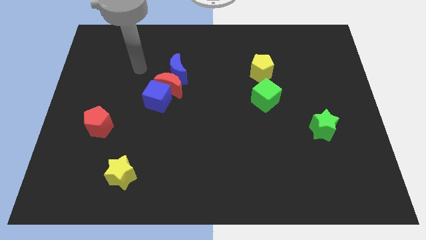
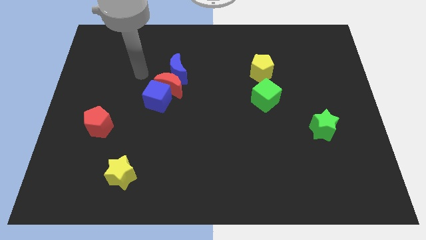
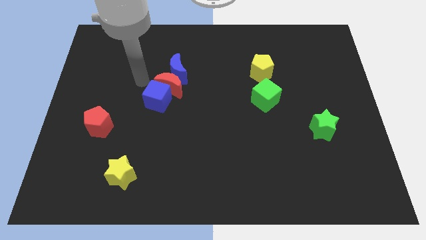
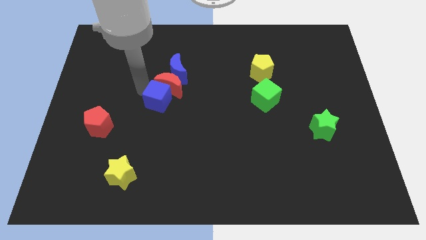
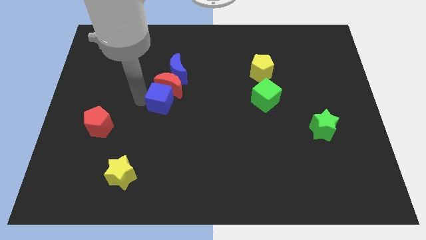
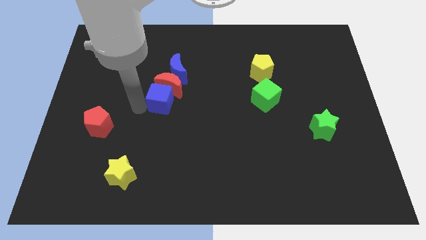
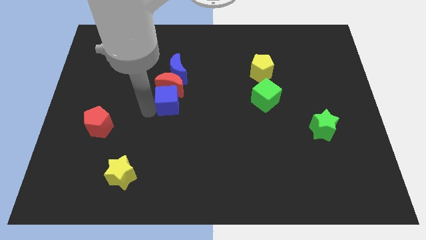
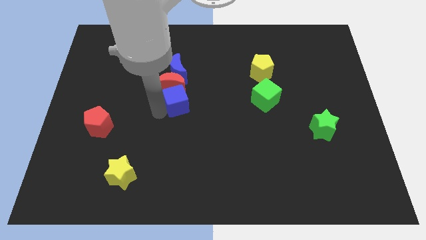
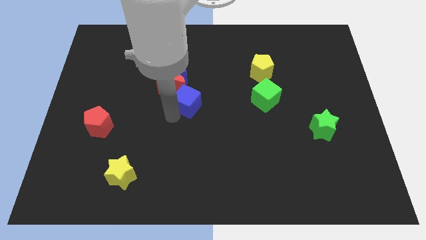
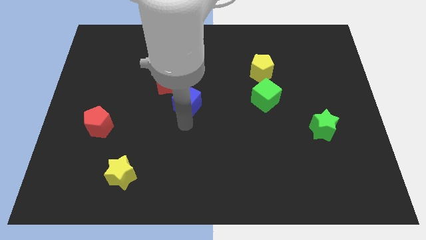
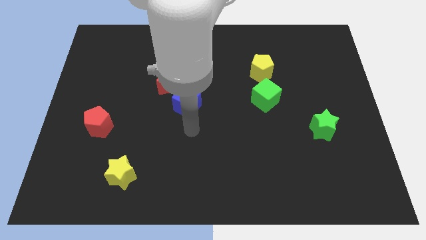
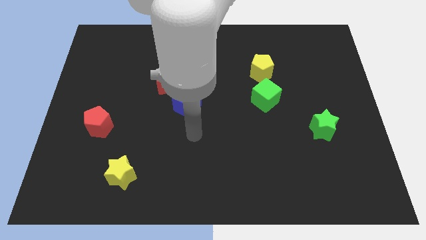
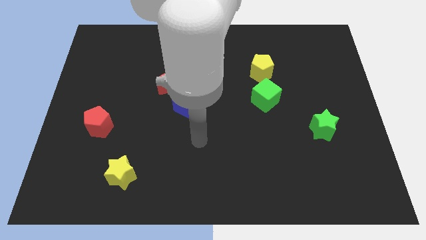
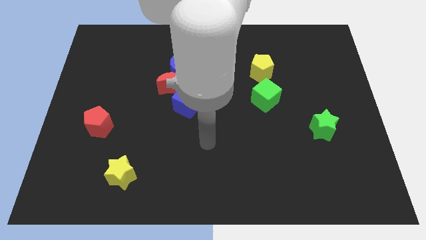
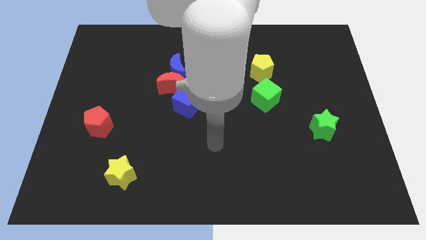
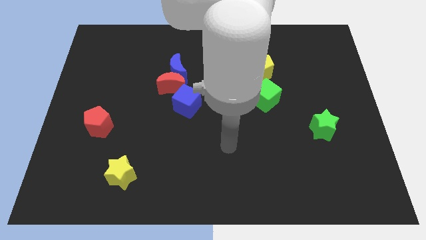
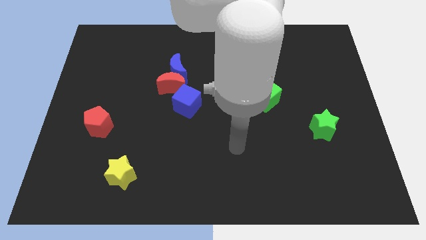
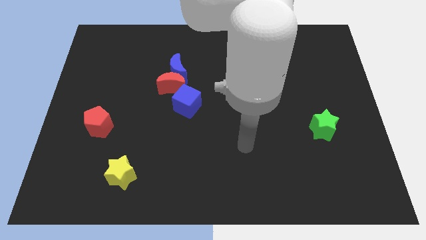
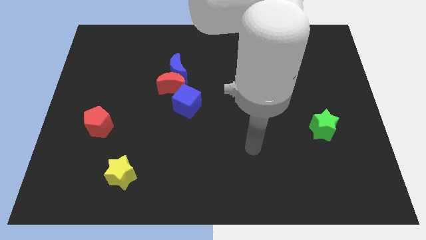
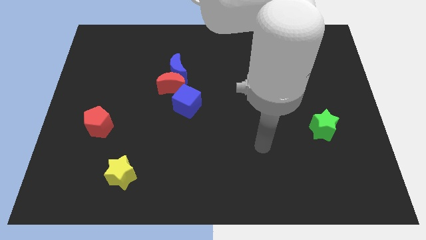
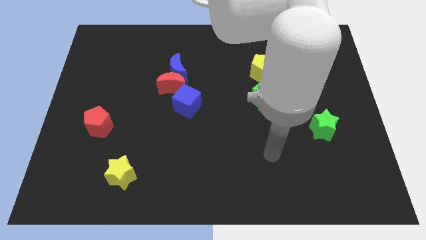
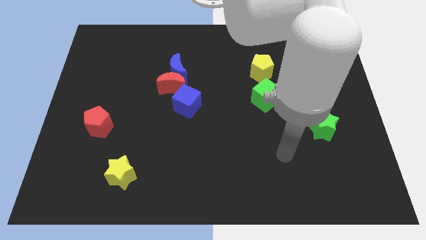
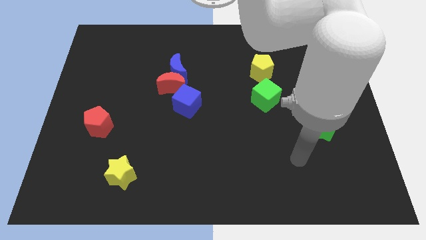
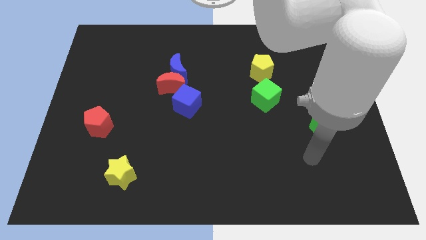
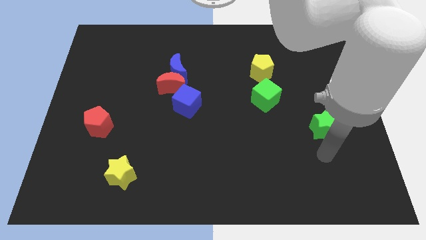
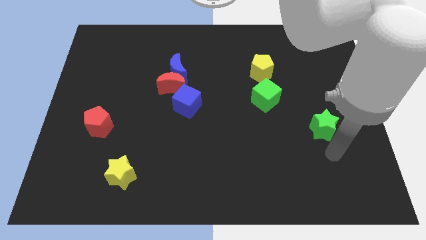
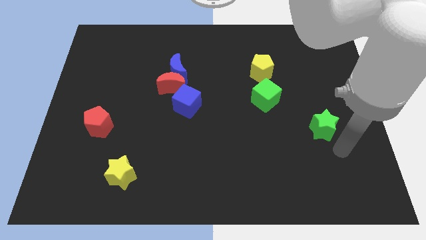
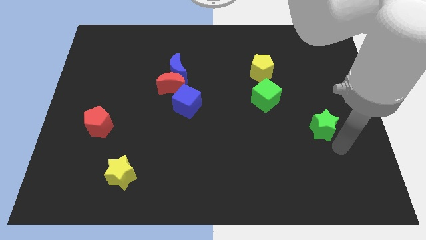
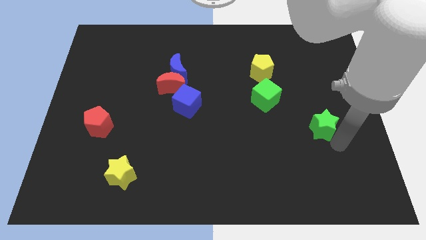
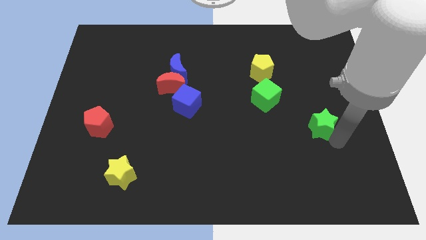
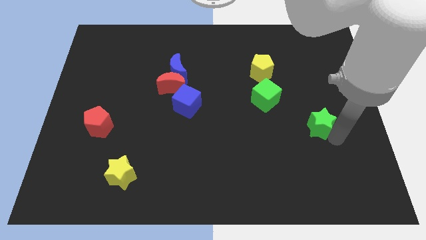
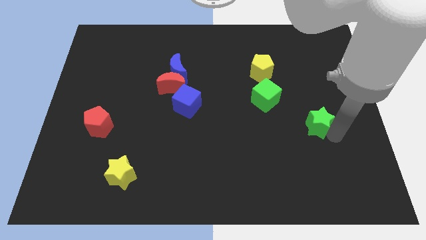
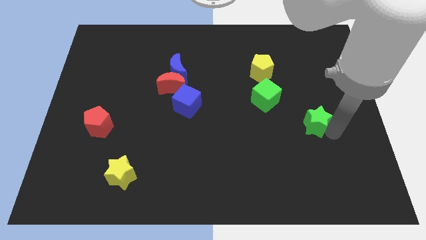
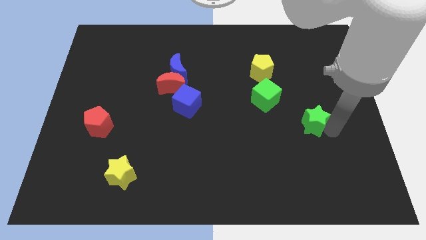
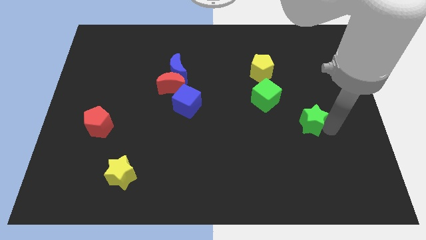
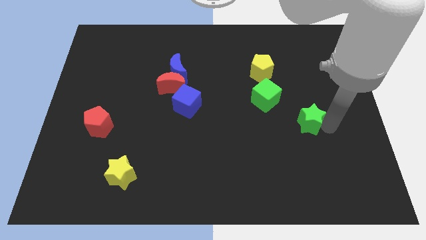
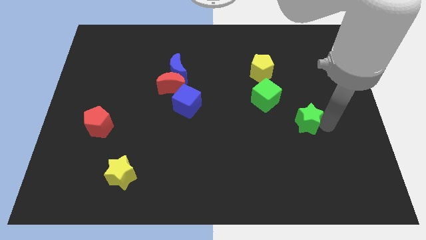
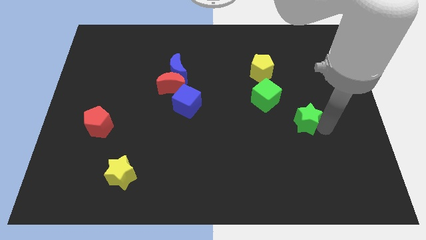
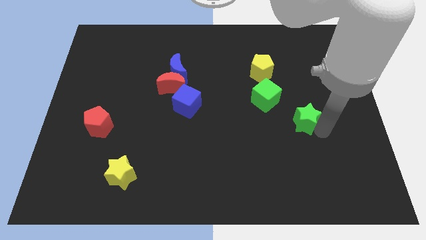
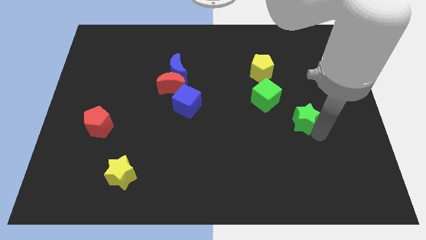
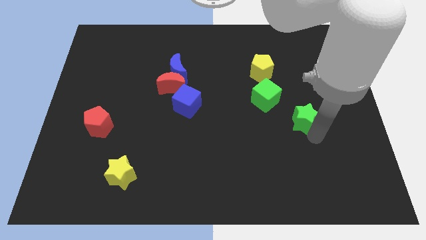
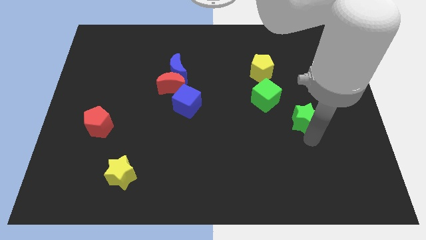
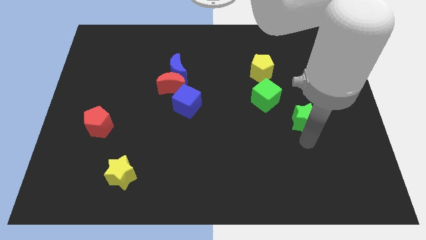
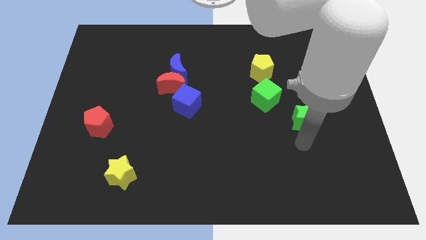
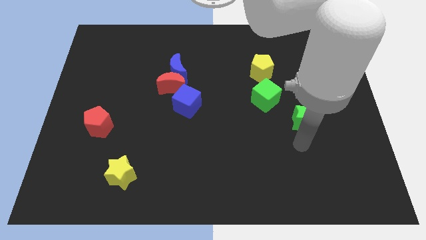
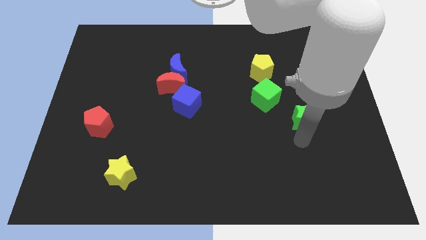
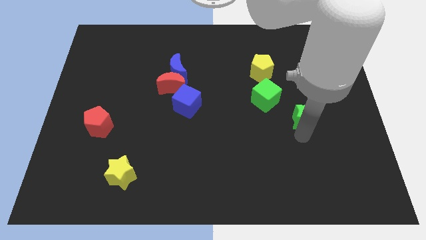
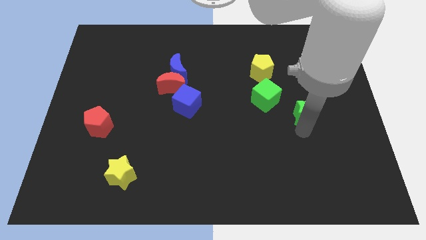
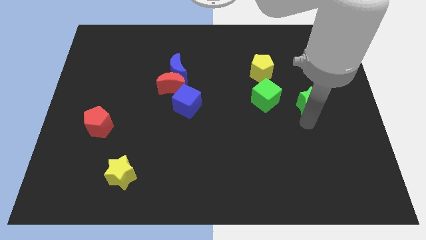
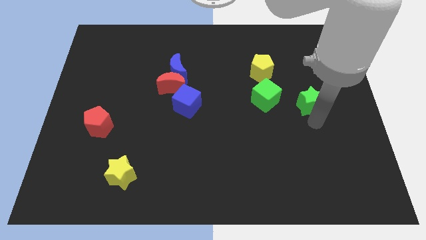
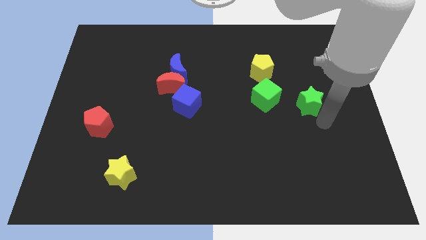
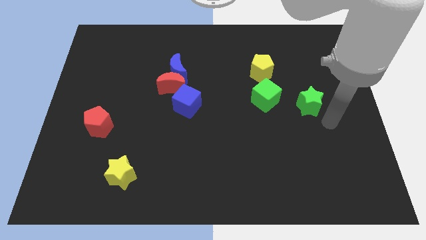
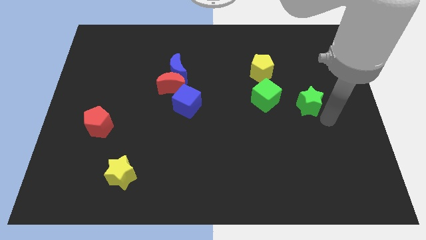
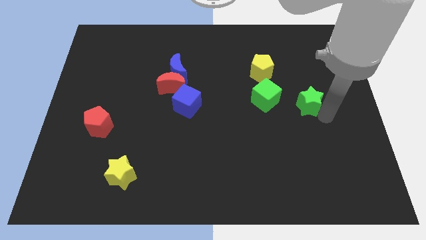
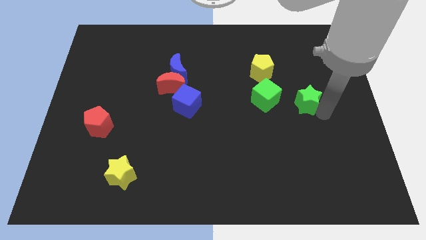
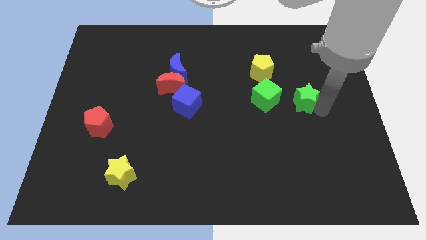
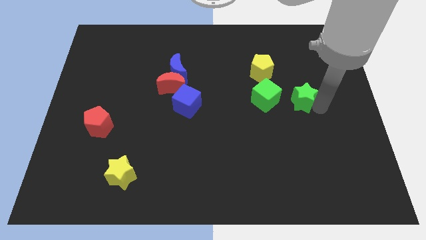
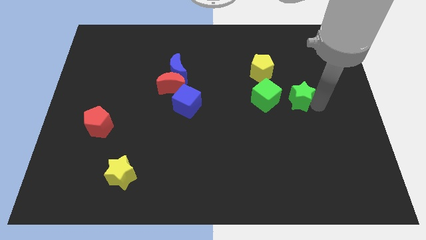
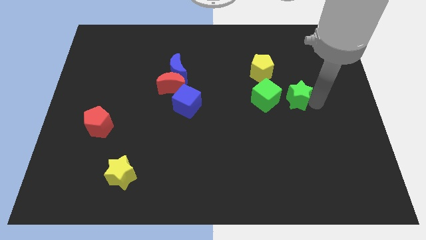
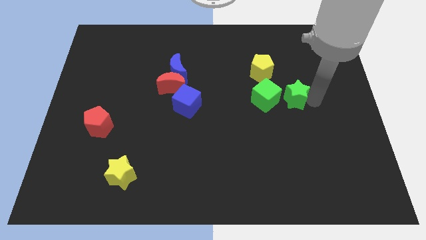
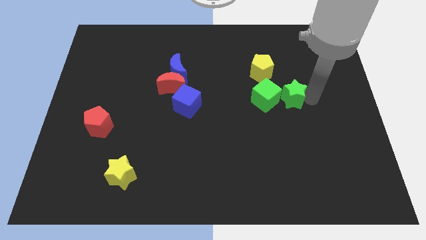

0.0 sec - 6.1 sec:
push the green star to the top right of the green cube

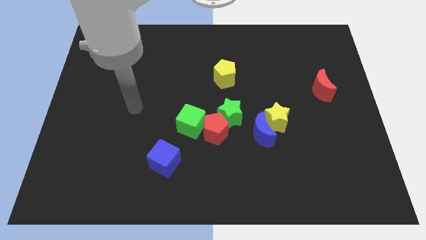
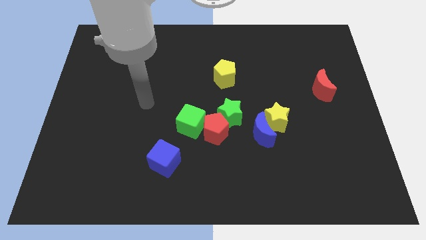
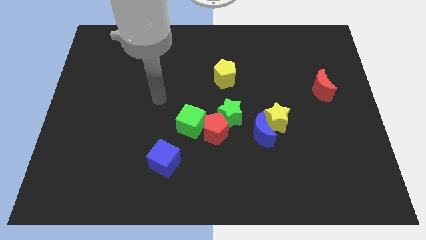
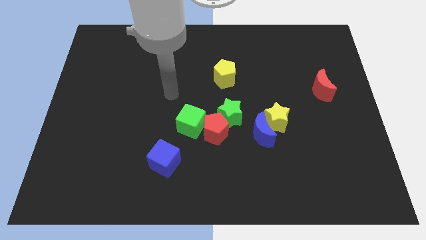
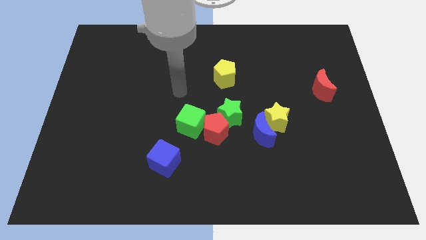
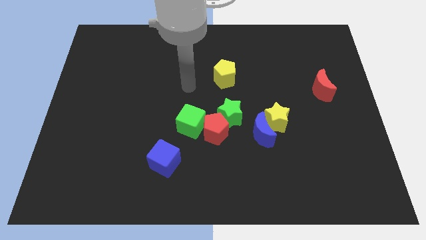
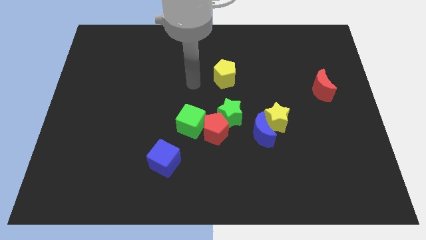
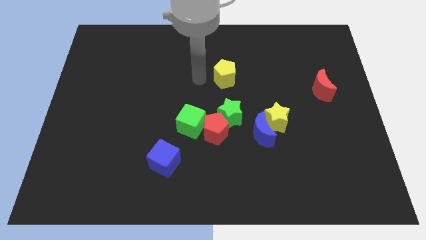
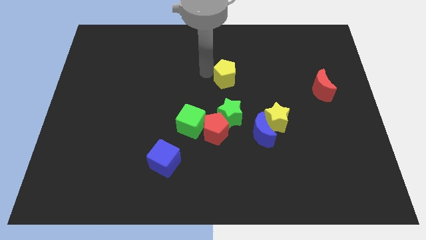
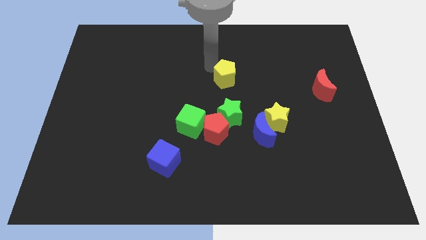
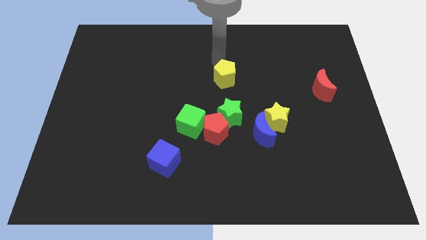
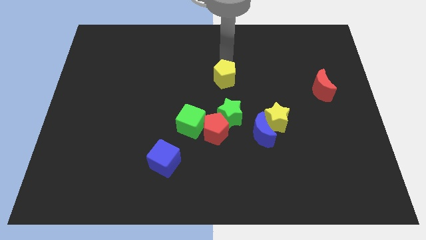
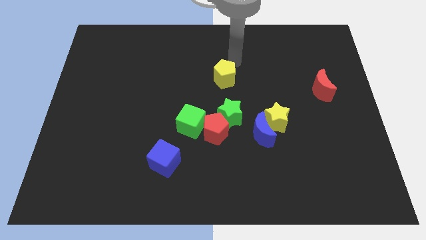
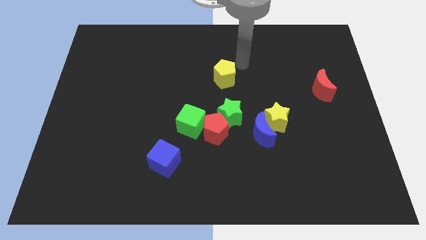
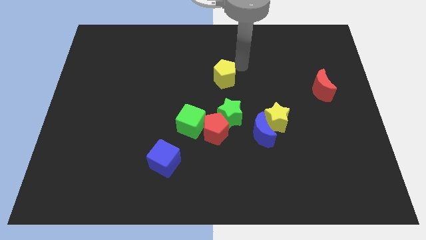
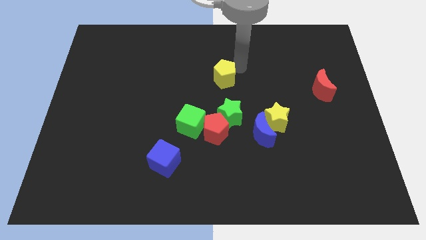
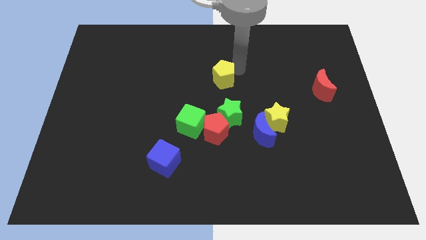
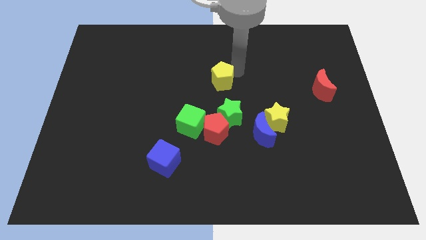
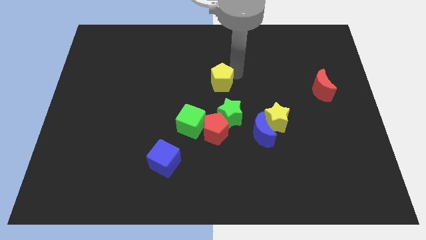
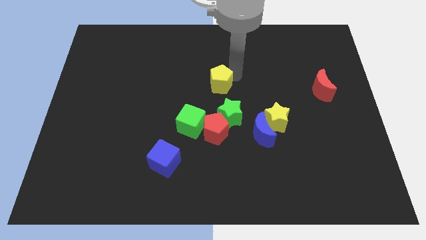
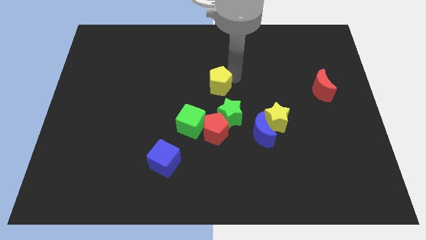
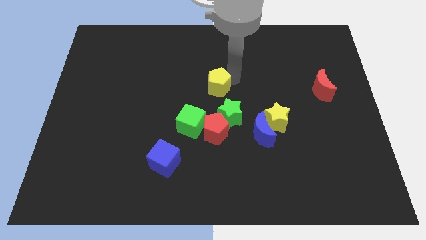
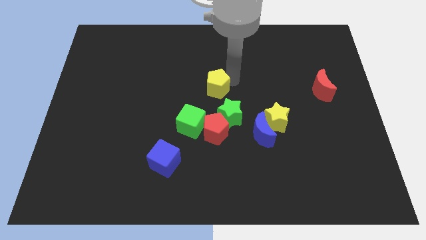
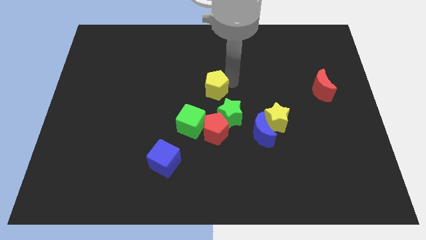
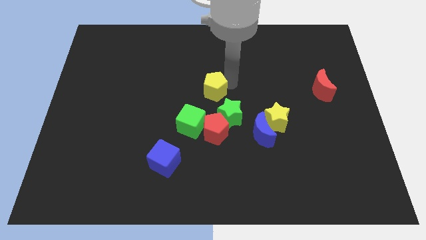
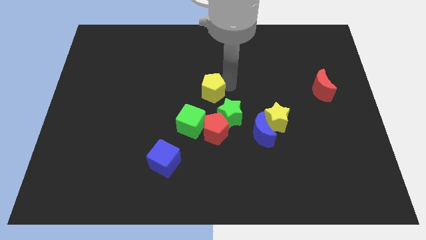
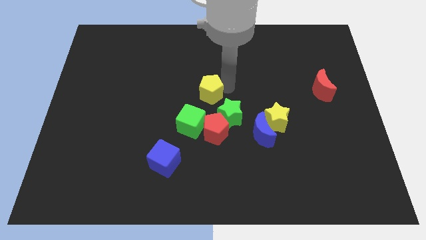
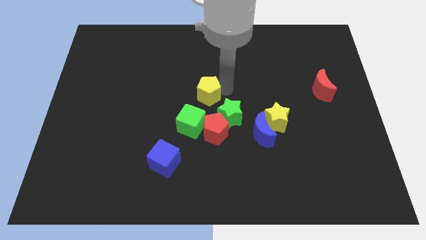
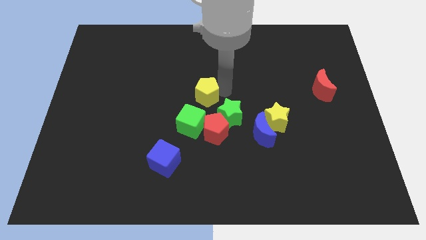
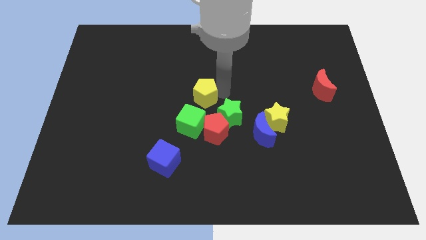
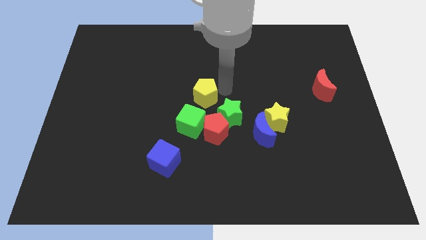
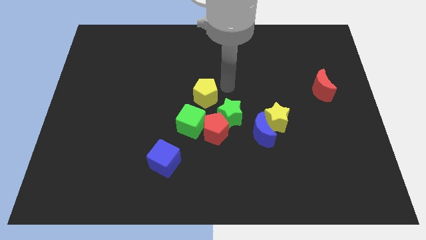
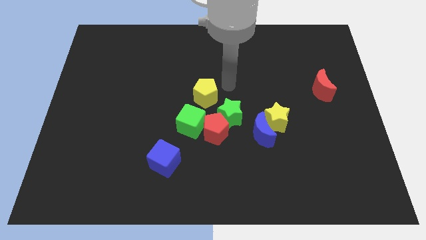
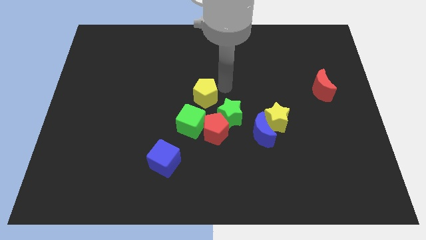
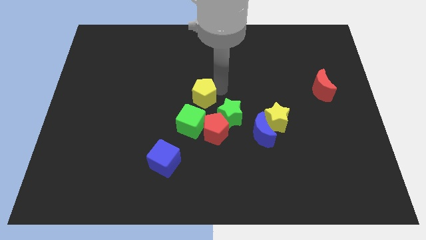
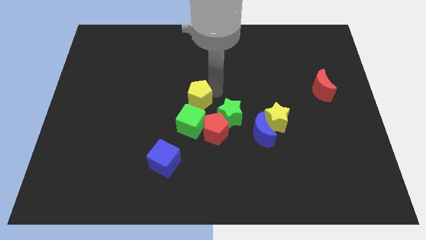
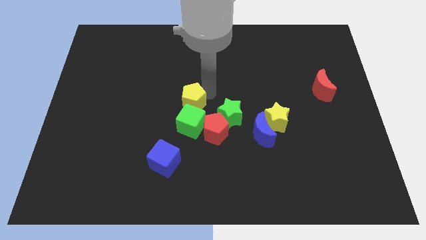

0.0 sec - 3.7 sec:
slide the yellow pentagon to the left side of the green star
